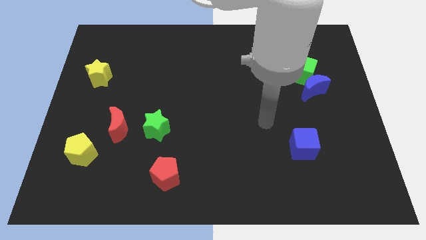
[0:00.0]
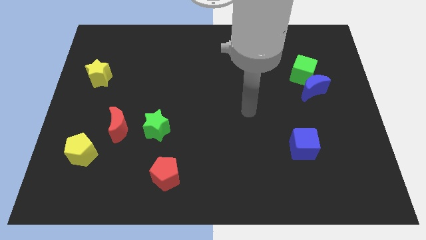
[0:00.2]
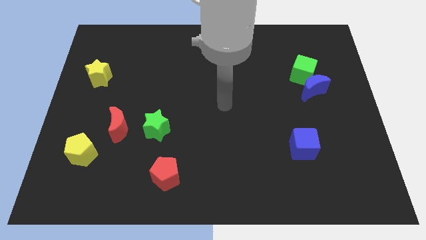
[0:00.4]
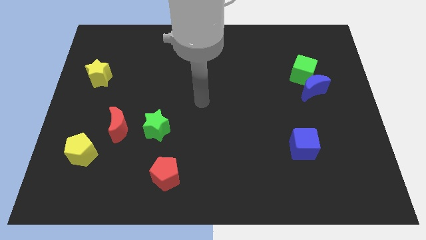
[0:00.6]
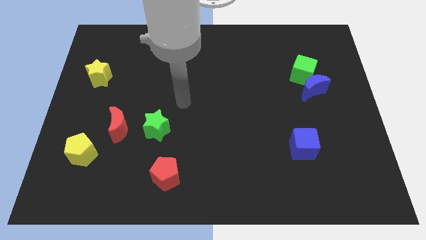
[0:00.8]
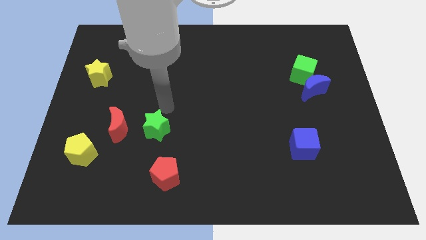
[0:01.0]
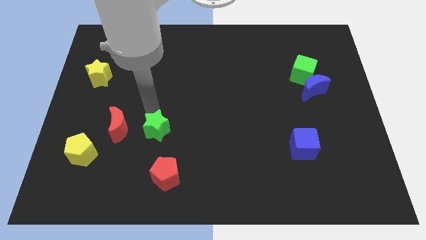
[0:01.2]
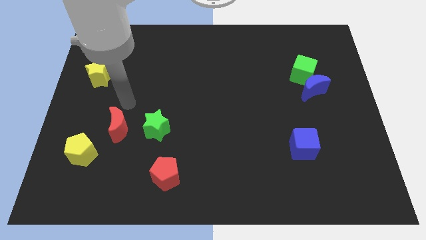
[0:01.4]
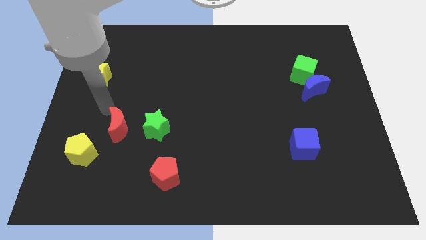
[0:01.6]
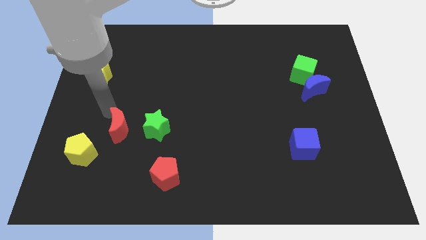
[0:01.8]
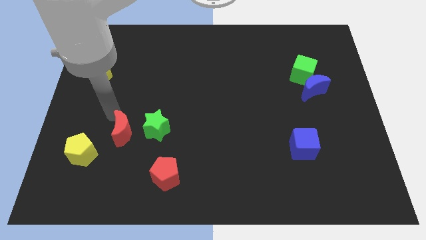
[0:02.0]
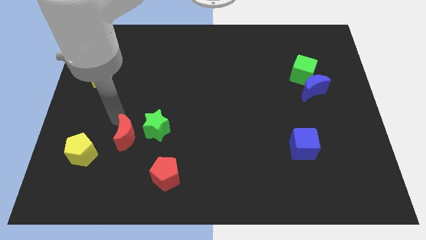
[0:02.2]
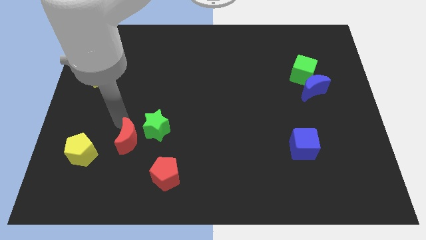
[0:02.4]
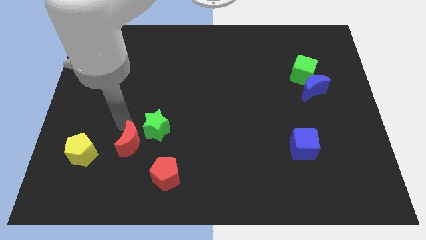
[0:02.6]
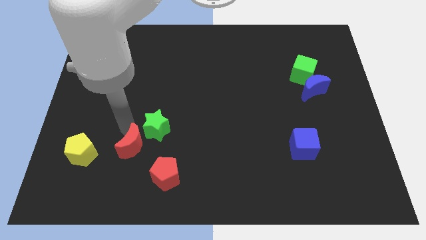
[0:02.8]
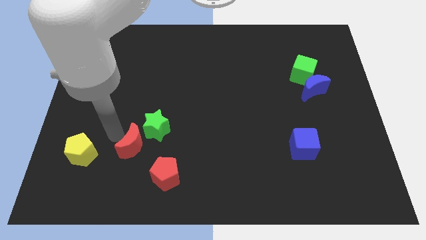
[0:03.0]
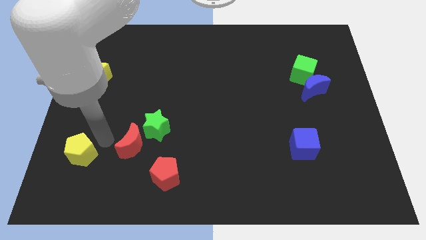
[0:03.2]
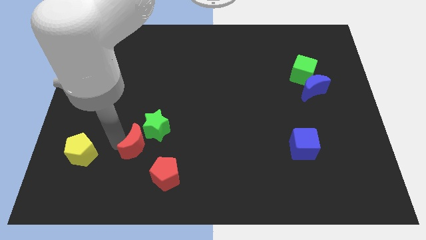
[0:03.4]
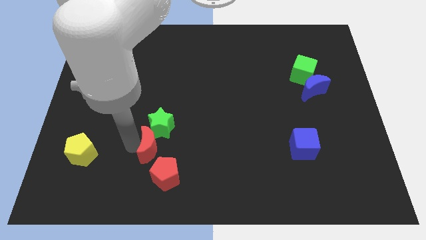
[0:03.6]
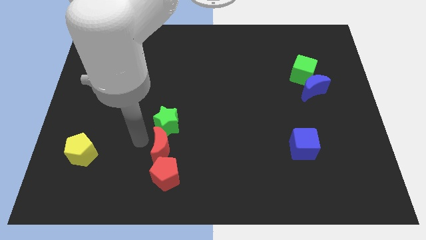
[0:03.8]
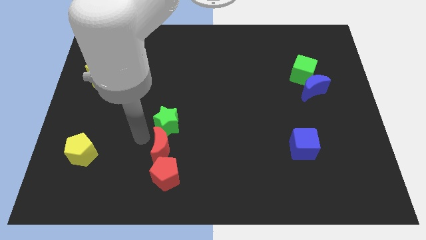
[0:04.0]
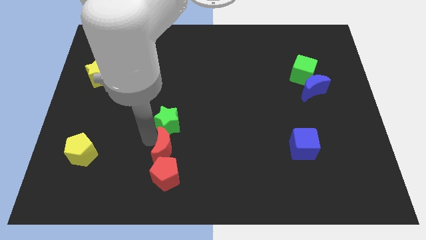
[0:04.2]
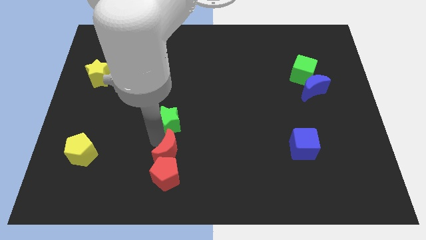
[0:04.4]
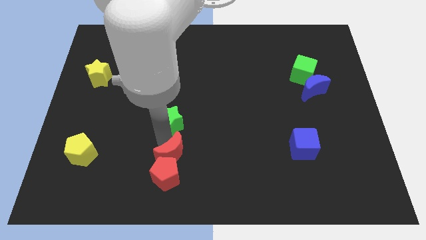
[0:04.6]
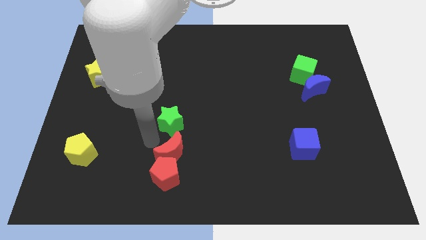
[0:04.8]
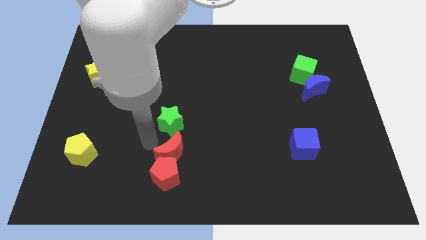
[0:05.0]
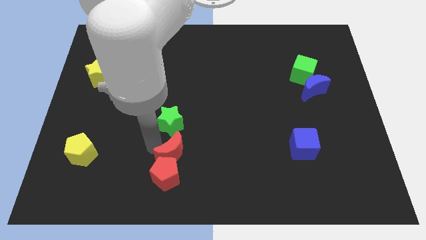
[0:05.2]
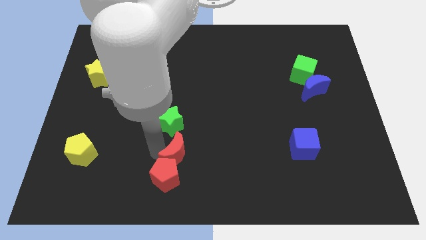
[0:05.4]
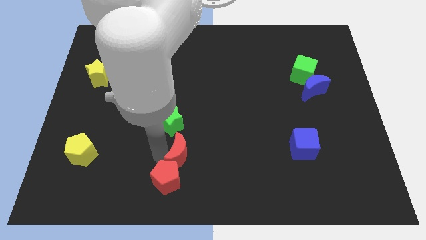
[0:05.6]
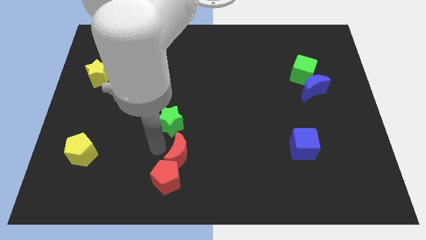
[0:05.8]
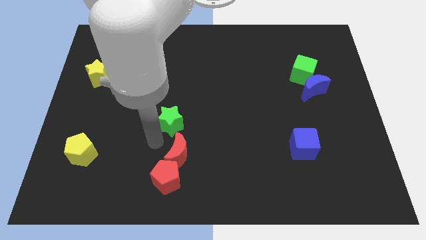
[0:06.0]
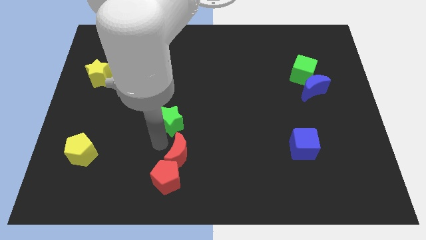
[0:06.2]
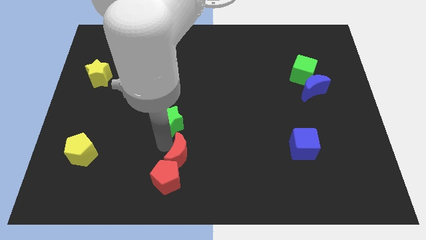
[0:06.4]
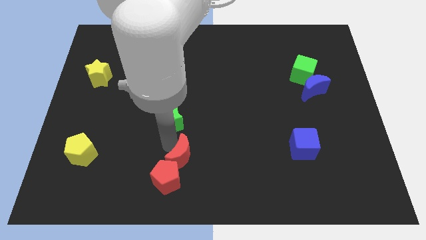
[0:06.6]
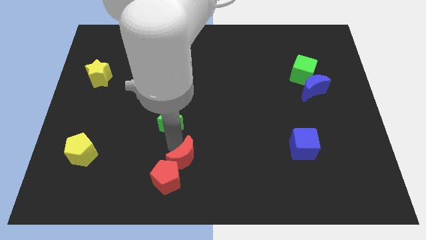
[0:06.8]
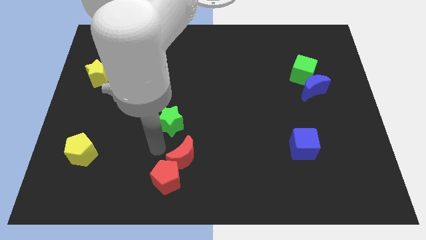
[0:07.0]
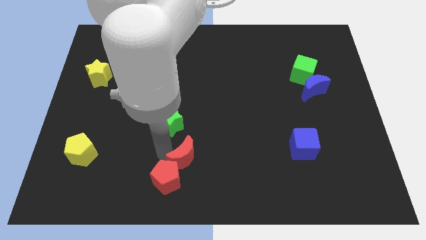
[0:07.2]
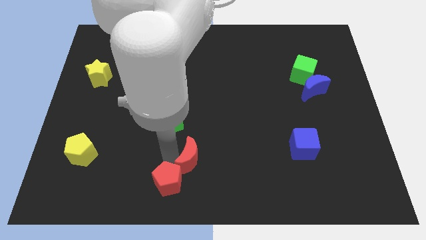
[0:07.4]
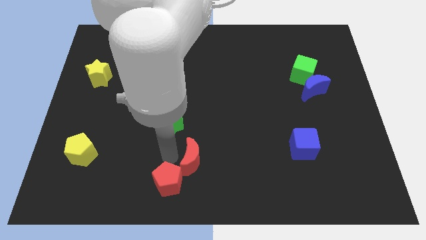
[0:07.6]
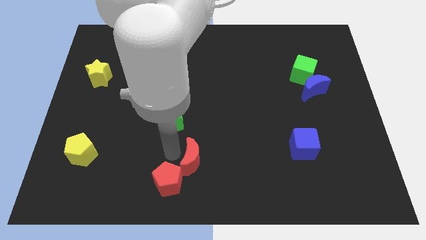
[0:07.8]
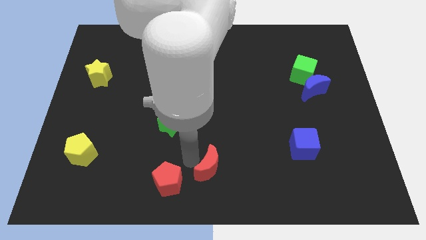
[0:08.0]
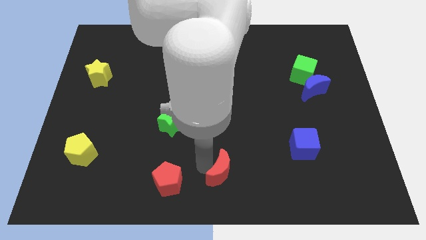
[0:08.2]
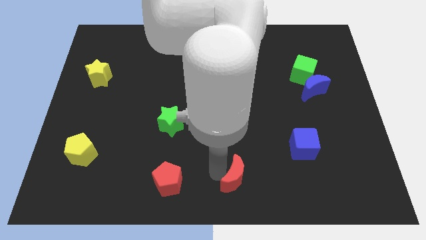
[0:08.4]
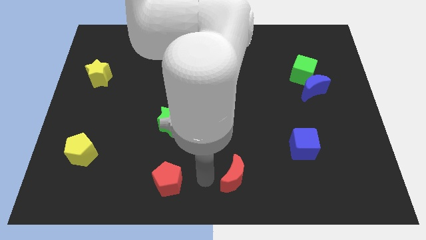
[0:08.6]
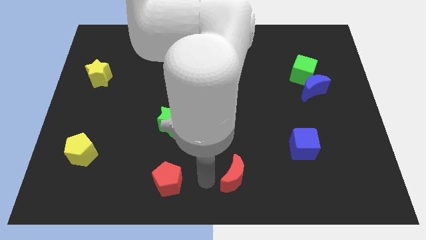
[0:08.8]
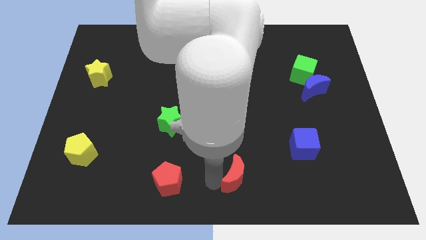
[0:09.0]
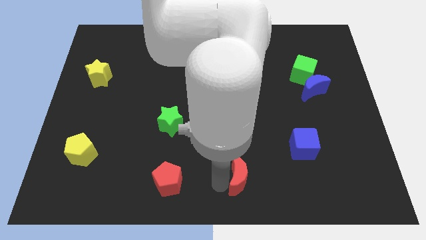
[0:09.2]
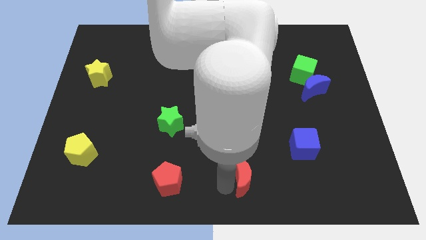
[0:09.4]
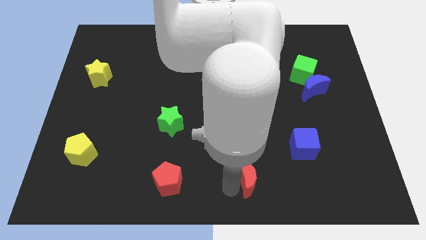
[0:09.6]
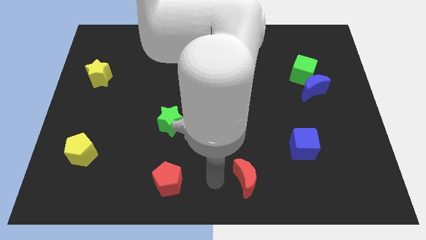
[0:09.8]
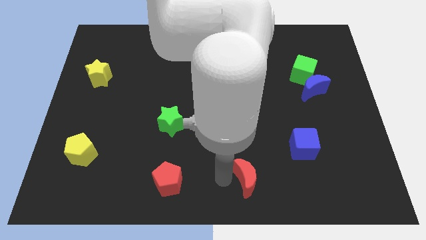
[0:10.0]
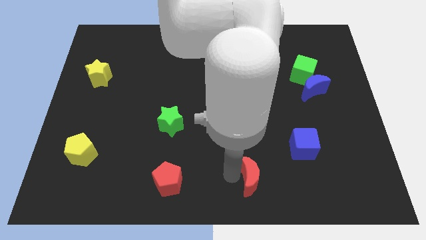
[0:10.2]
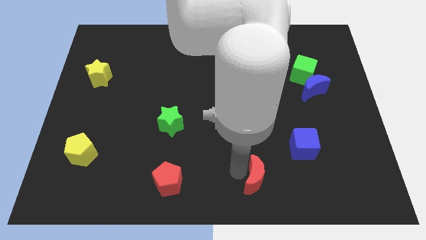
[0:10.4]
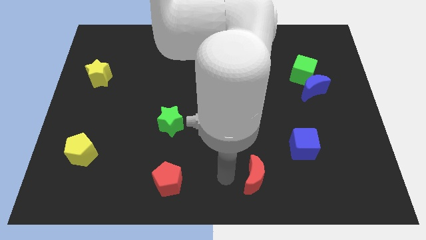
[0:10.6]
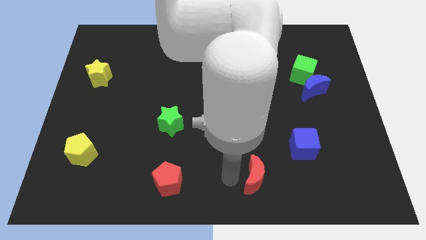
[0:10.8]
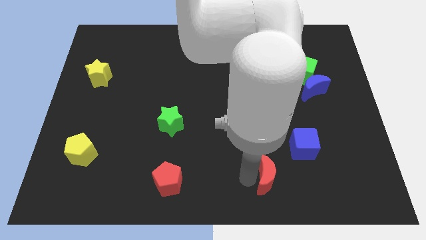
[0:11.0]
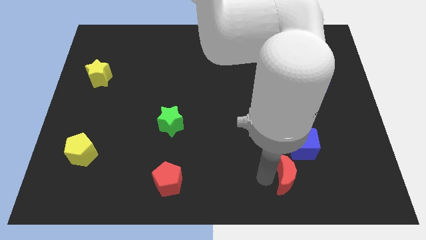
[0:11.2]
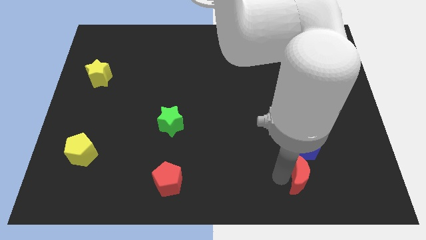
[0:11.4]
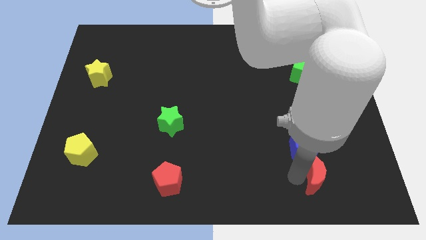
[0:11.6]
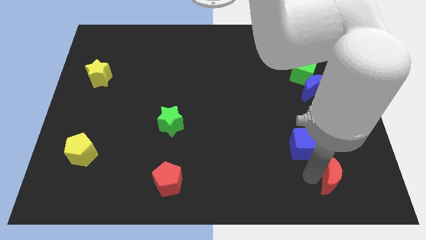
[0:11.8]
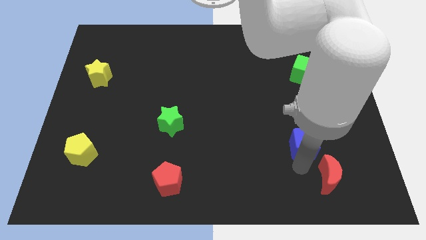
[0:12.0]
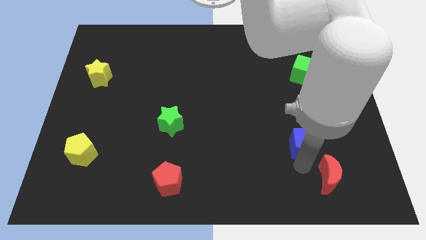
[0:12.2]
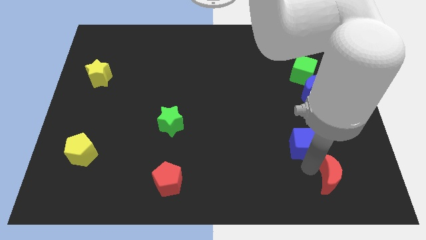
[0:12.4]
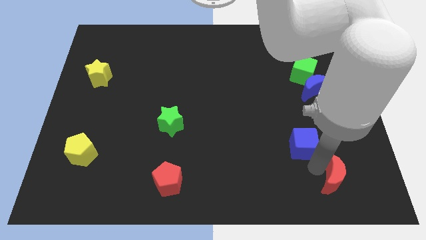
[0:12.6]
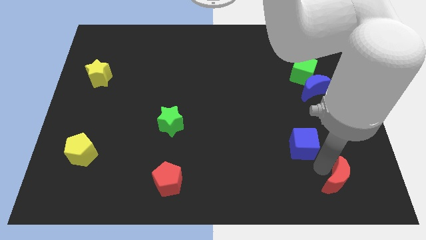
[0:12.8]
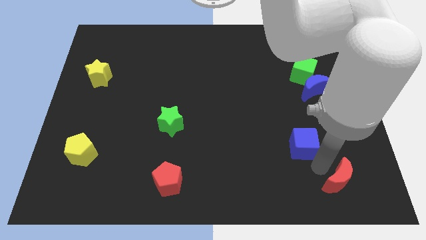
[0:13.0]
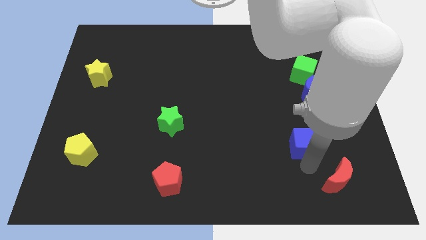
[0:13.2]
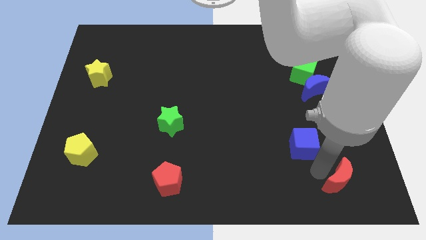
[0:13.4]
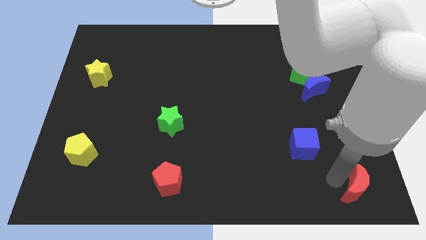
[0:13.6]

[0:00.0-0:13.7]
put the red moon to the bottom right corner
